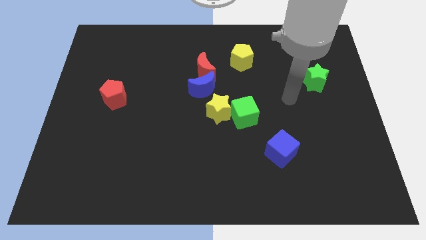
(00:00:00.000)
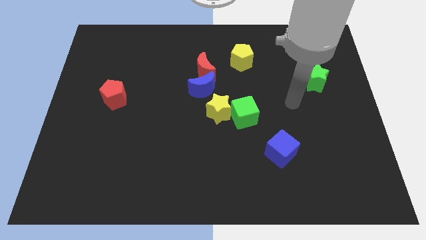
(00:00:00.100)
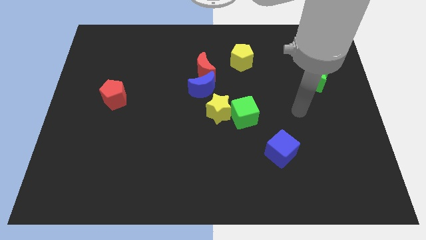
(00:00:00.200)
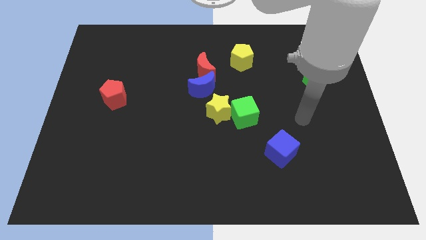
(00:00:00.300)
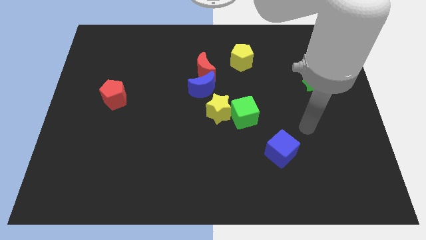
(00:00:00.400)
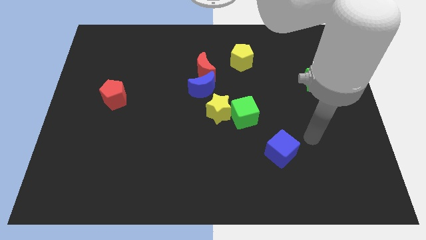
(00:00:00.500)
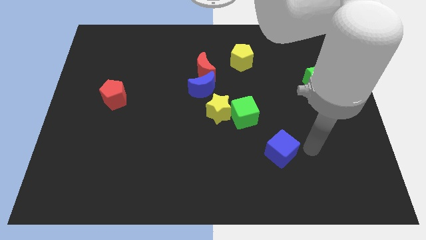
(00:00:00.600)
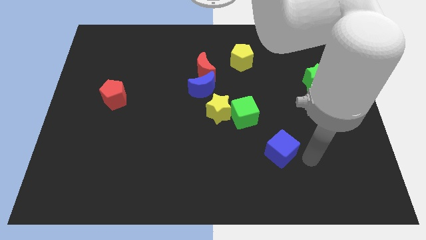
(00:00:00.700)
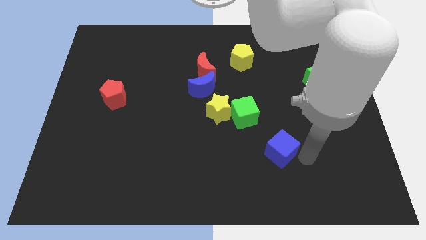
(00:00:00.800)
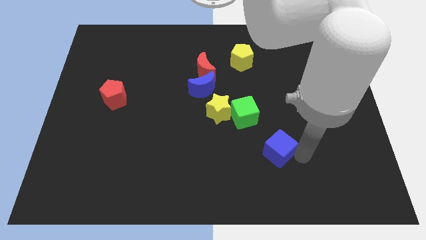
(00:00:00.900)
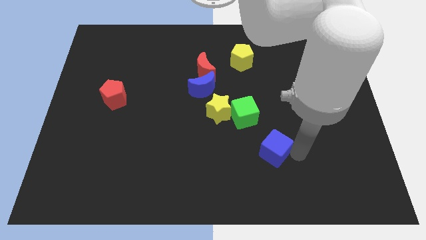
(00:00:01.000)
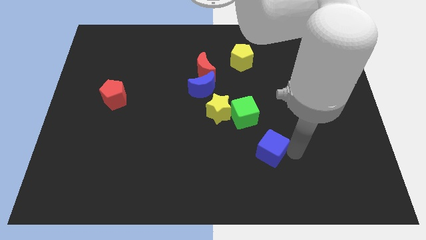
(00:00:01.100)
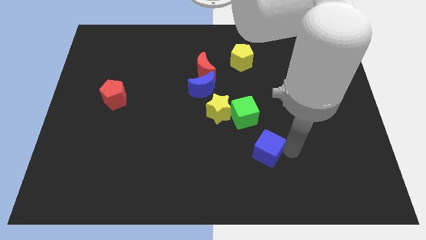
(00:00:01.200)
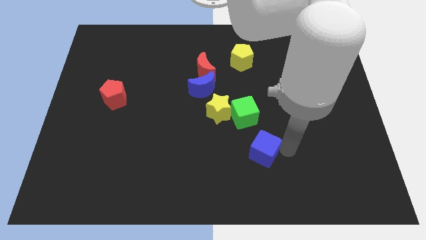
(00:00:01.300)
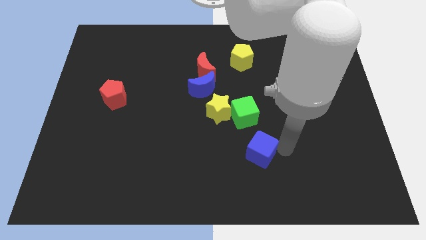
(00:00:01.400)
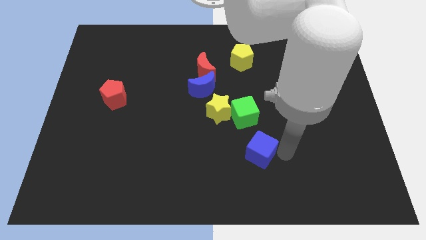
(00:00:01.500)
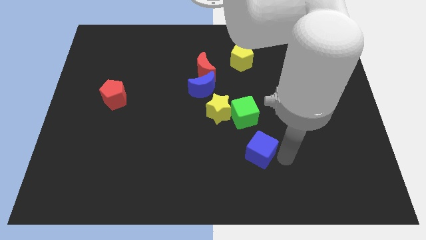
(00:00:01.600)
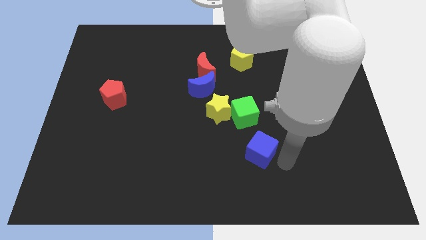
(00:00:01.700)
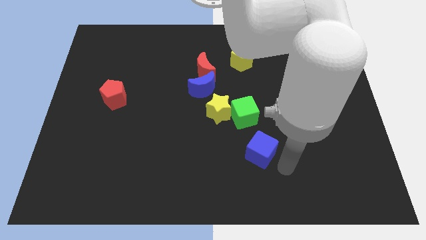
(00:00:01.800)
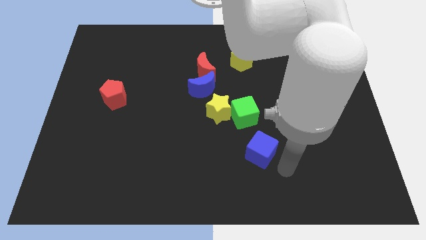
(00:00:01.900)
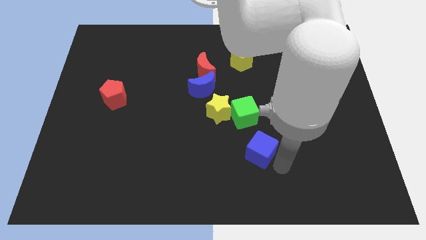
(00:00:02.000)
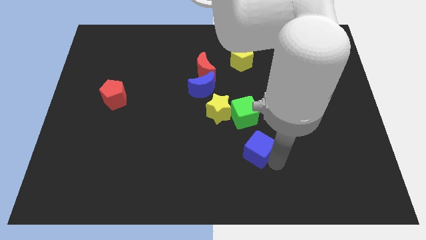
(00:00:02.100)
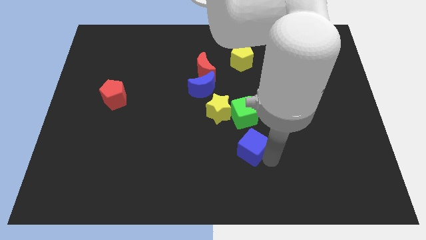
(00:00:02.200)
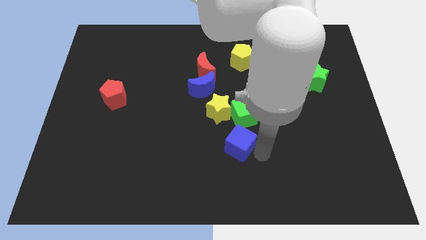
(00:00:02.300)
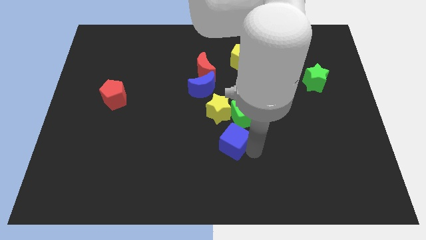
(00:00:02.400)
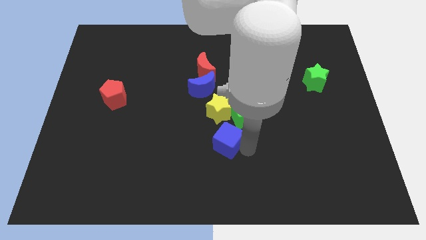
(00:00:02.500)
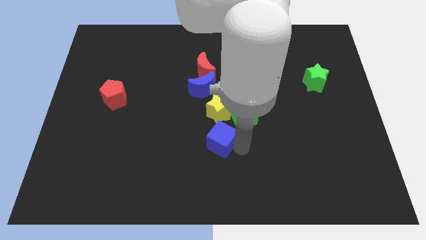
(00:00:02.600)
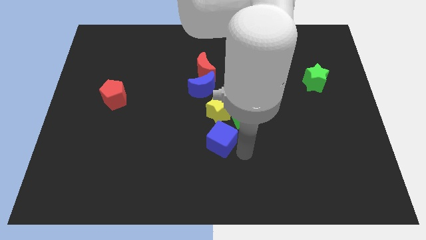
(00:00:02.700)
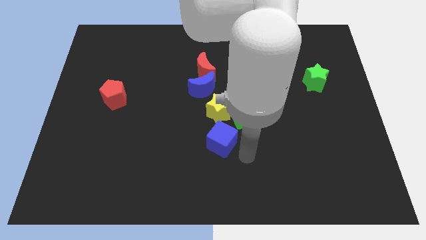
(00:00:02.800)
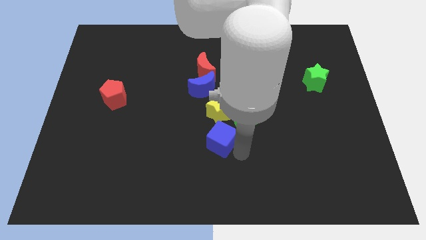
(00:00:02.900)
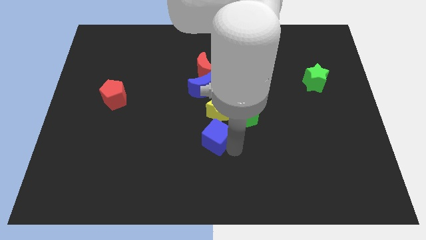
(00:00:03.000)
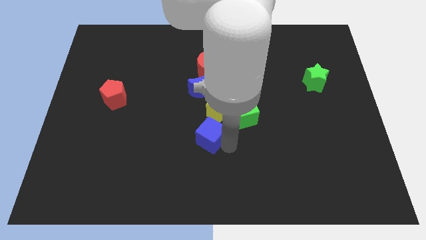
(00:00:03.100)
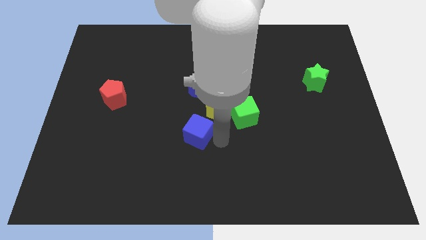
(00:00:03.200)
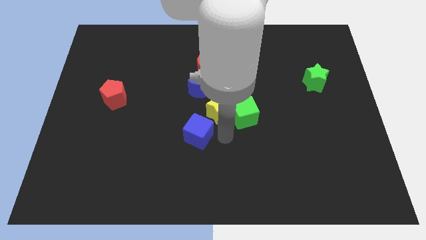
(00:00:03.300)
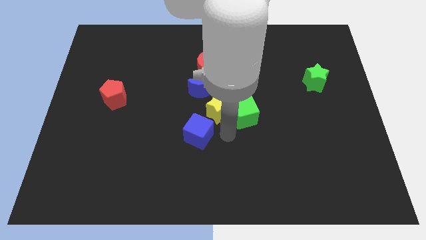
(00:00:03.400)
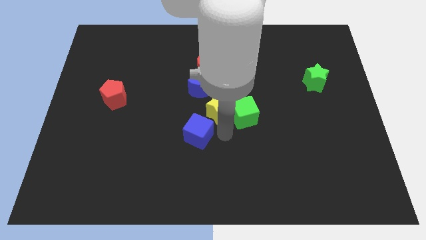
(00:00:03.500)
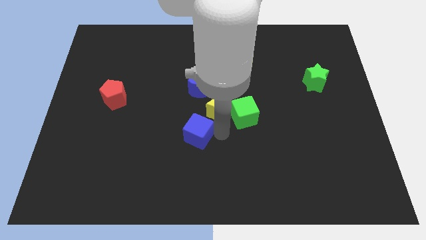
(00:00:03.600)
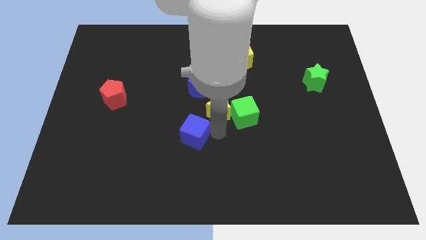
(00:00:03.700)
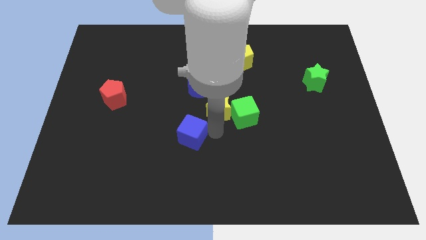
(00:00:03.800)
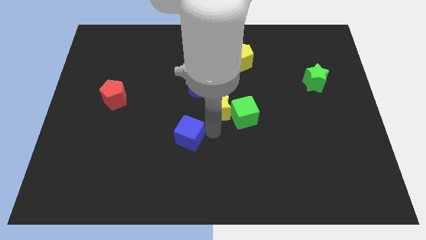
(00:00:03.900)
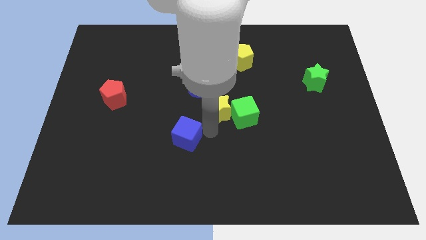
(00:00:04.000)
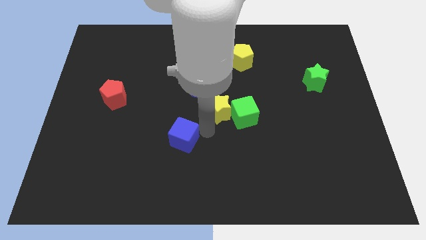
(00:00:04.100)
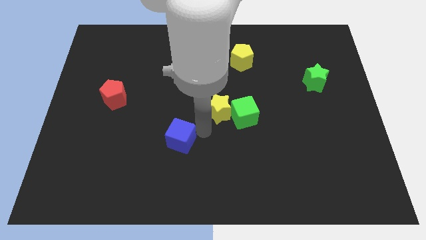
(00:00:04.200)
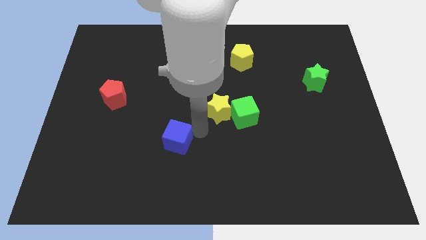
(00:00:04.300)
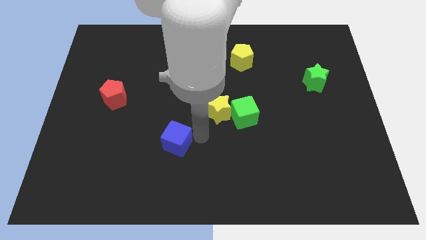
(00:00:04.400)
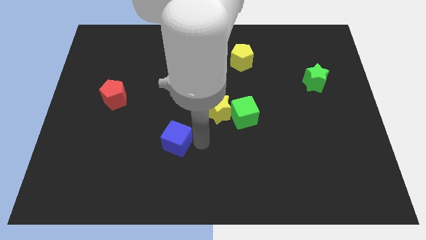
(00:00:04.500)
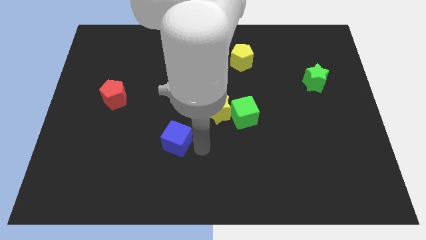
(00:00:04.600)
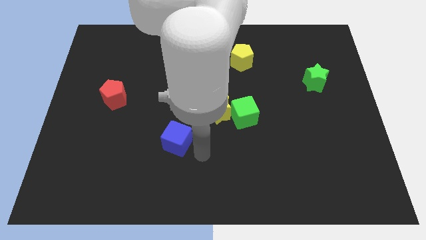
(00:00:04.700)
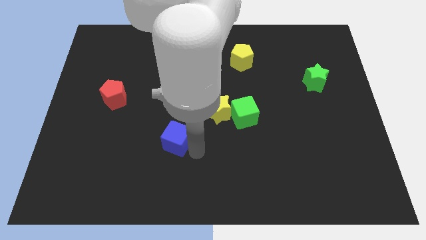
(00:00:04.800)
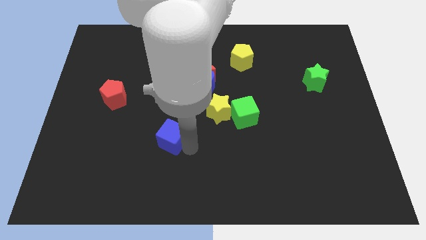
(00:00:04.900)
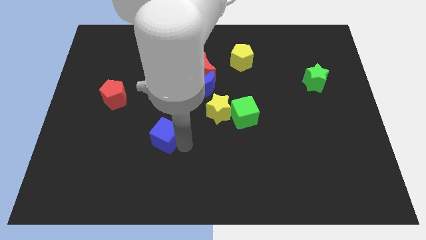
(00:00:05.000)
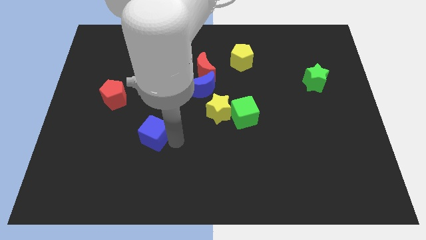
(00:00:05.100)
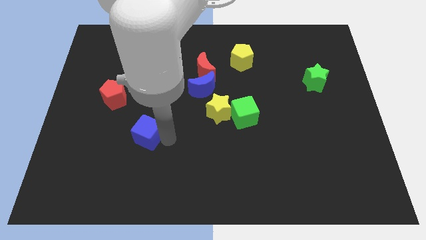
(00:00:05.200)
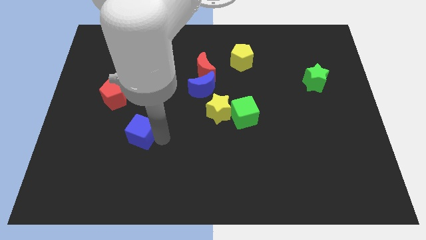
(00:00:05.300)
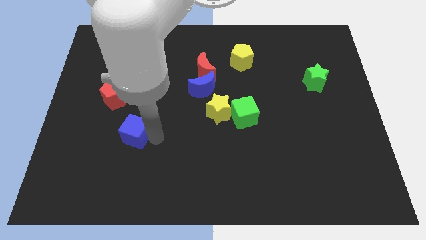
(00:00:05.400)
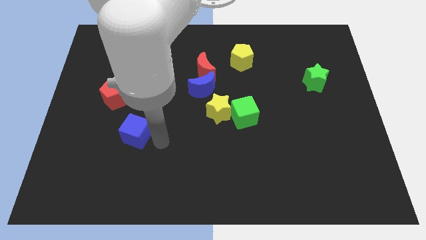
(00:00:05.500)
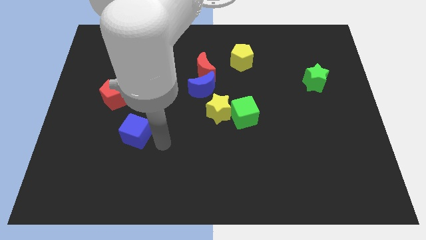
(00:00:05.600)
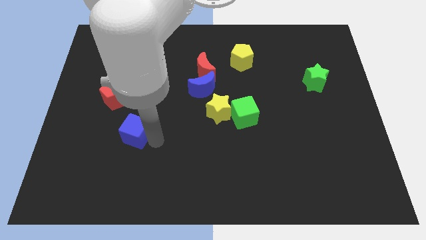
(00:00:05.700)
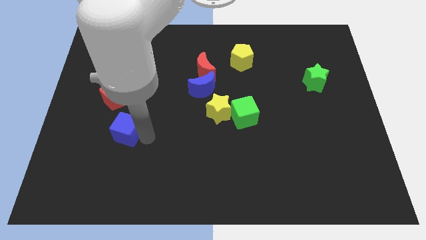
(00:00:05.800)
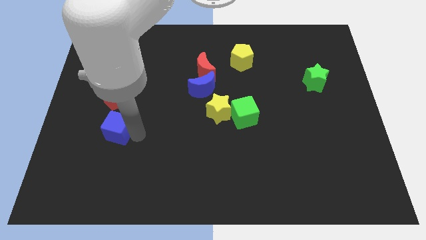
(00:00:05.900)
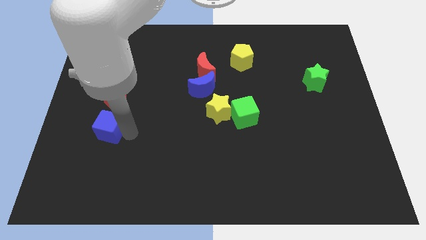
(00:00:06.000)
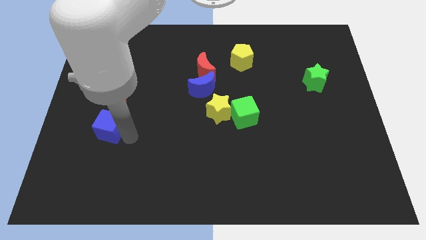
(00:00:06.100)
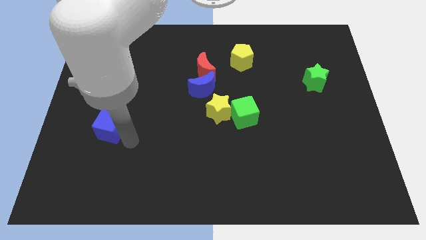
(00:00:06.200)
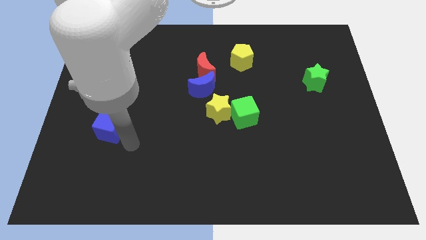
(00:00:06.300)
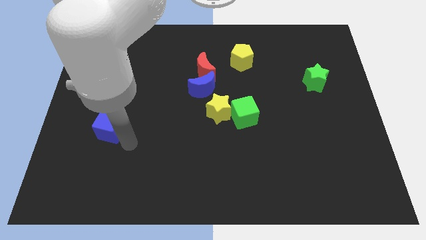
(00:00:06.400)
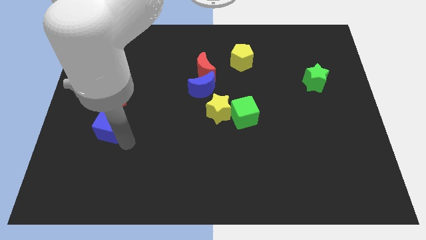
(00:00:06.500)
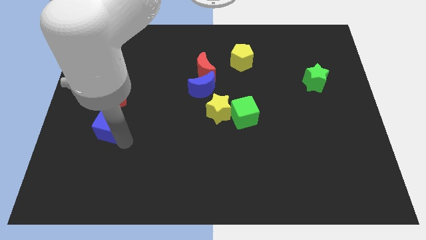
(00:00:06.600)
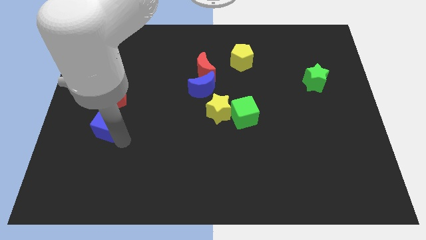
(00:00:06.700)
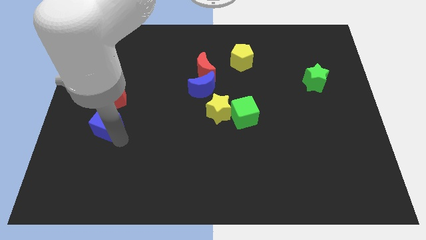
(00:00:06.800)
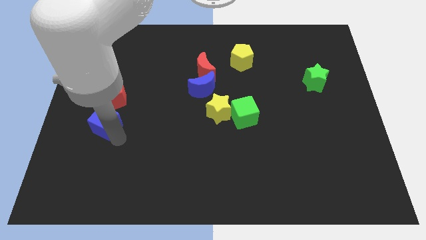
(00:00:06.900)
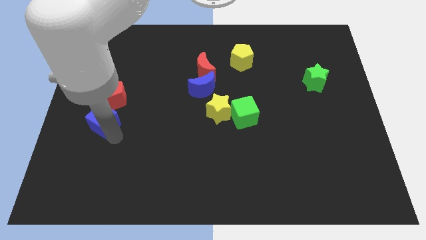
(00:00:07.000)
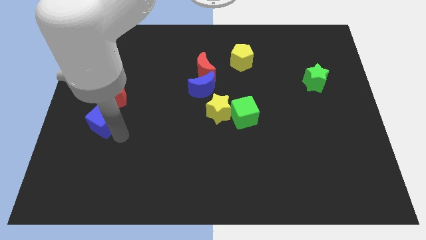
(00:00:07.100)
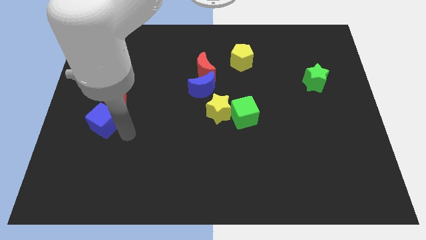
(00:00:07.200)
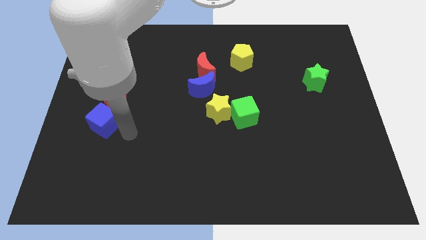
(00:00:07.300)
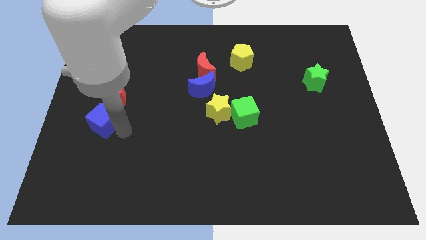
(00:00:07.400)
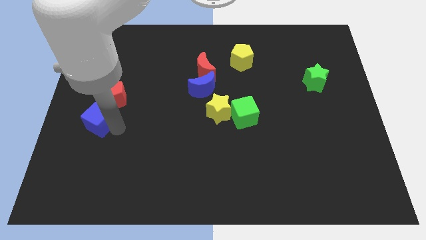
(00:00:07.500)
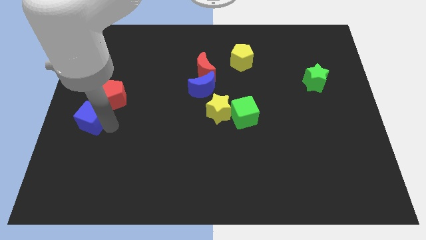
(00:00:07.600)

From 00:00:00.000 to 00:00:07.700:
push the blue cube to the left side

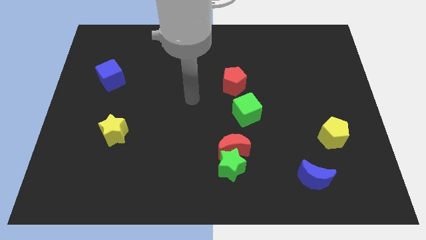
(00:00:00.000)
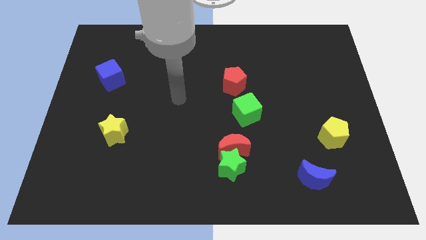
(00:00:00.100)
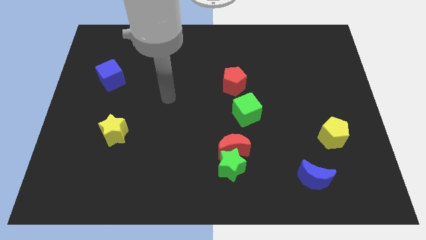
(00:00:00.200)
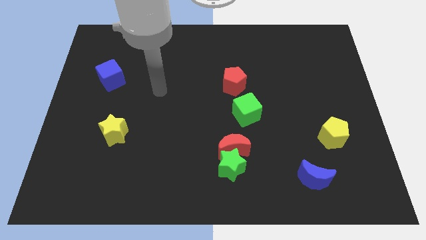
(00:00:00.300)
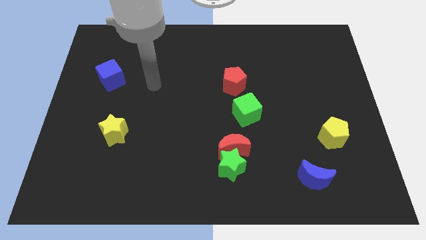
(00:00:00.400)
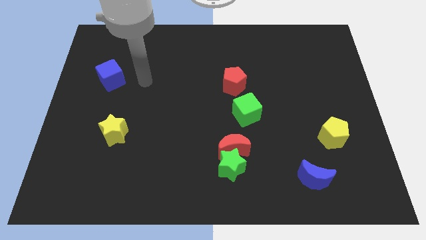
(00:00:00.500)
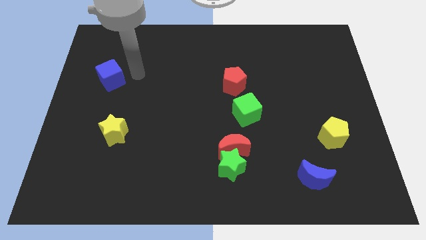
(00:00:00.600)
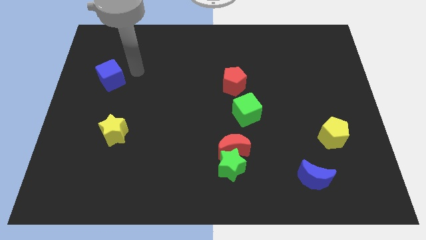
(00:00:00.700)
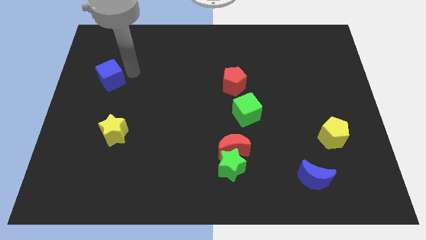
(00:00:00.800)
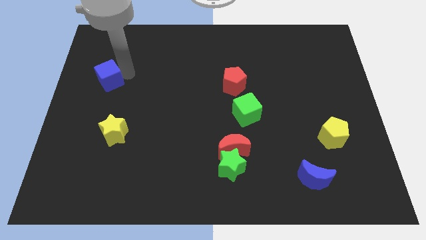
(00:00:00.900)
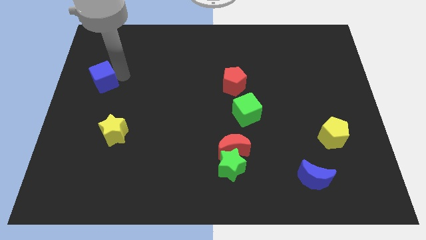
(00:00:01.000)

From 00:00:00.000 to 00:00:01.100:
put the blue cube to the left side
